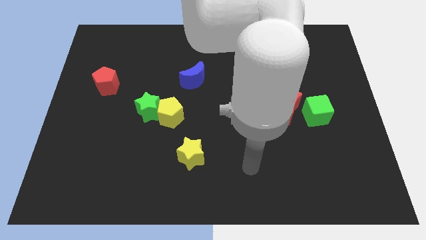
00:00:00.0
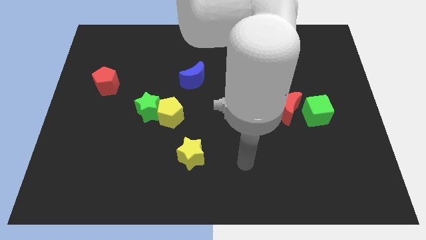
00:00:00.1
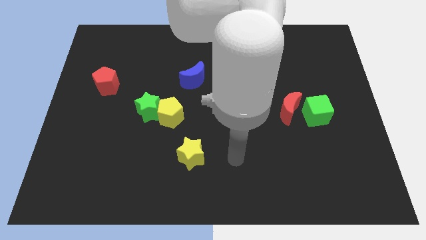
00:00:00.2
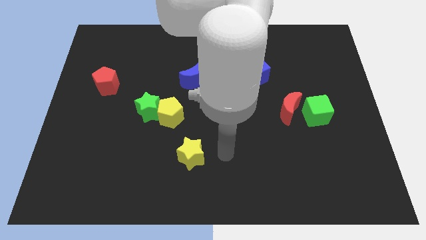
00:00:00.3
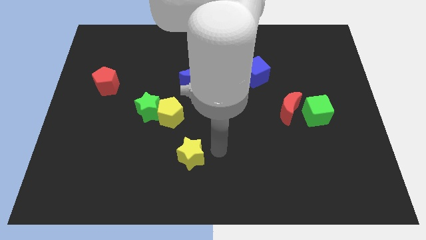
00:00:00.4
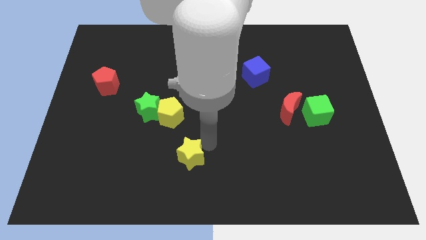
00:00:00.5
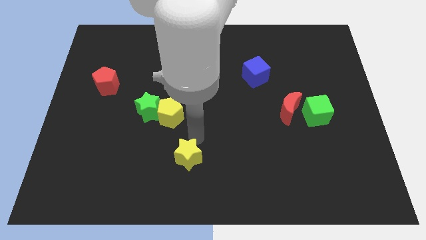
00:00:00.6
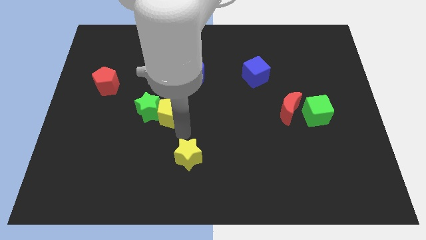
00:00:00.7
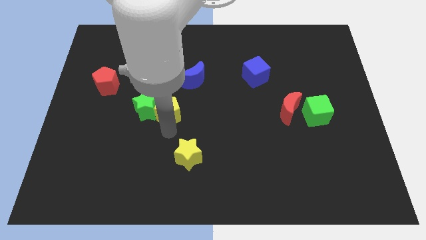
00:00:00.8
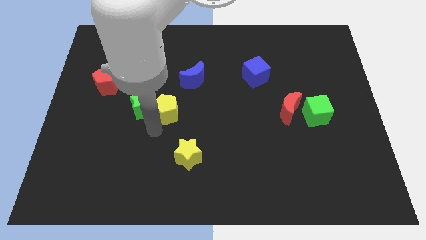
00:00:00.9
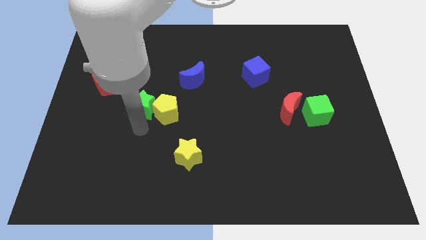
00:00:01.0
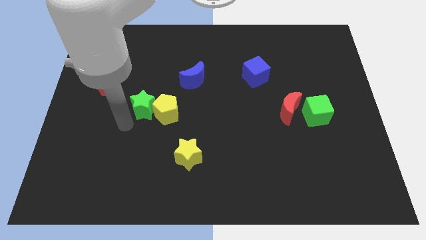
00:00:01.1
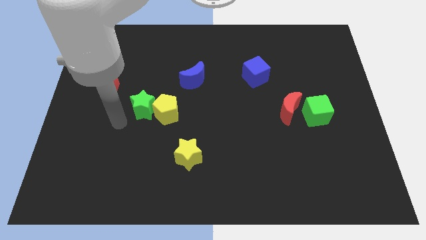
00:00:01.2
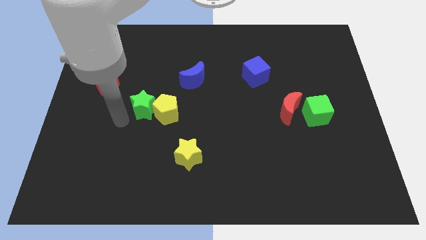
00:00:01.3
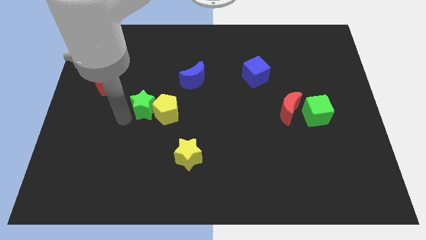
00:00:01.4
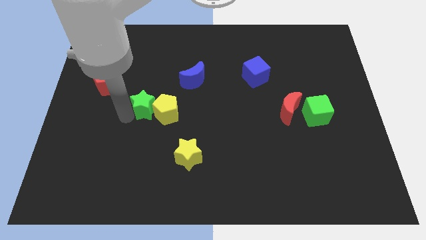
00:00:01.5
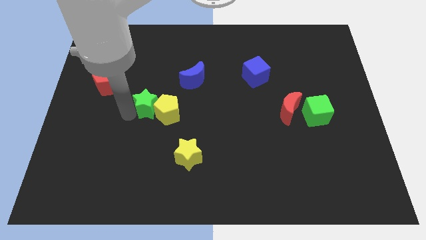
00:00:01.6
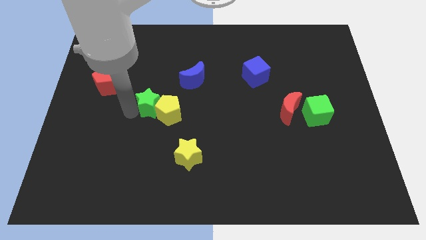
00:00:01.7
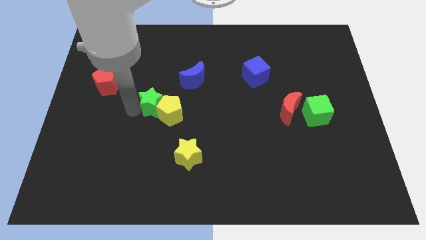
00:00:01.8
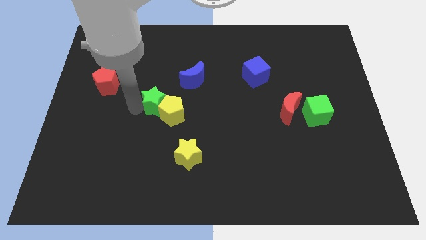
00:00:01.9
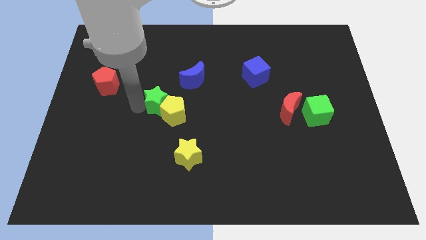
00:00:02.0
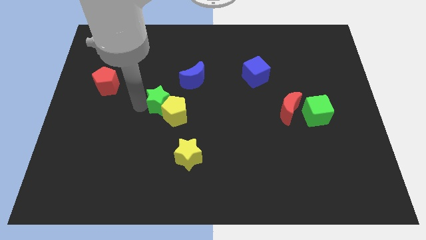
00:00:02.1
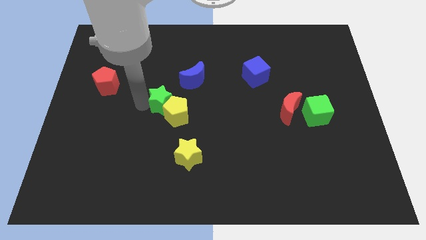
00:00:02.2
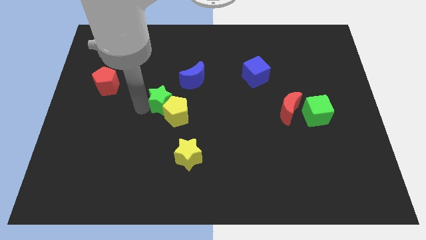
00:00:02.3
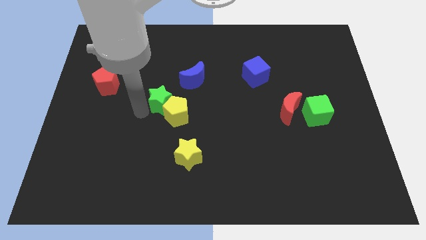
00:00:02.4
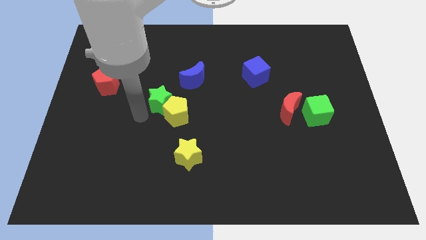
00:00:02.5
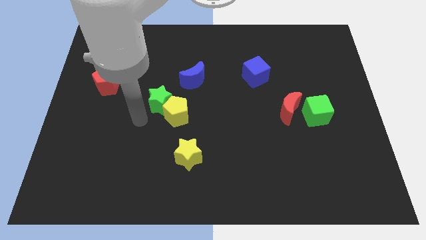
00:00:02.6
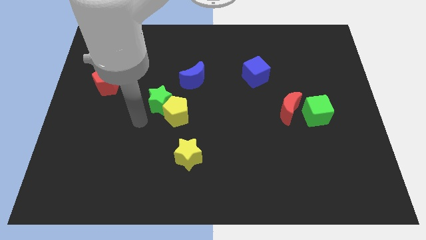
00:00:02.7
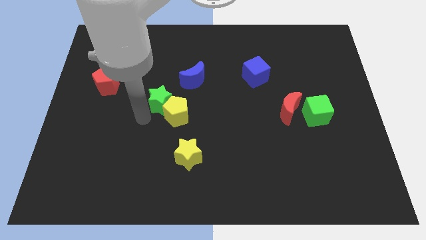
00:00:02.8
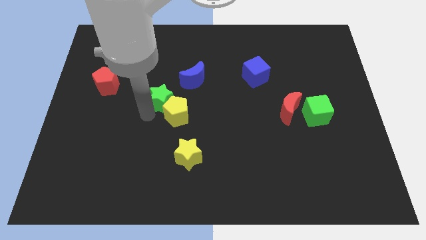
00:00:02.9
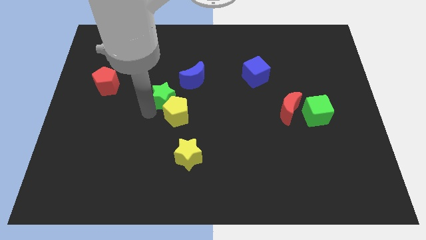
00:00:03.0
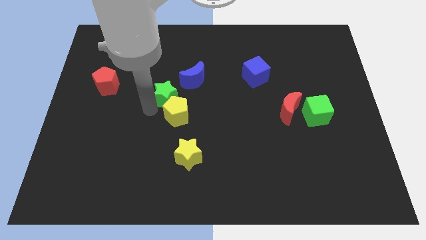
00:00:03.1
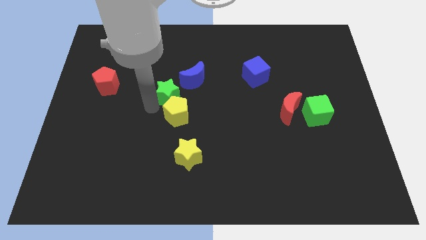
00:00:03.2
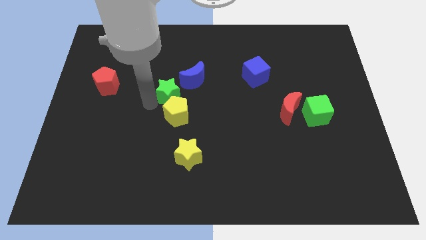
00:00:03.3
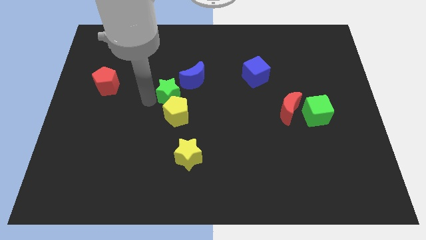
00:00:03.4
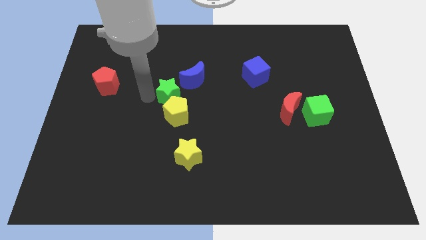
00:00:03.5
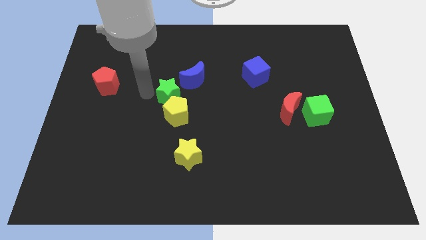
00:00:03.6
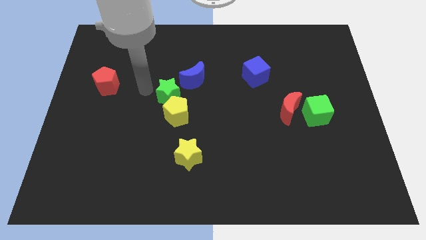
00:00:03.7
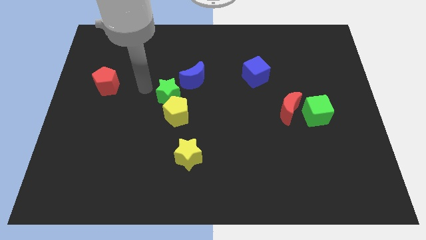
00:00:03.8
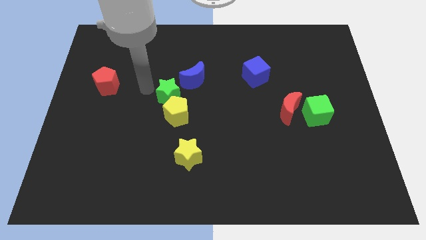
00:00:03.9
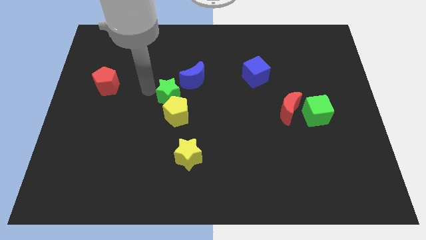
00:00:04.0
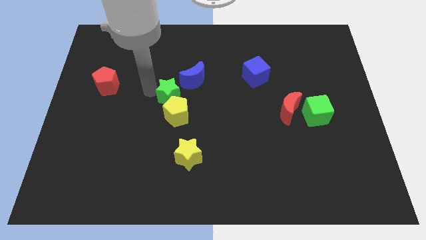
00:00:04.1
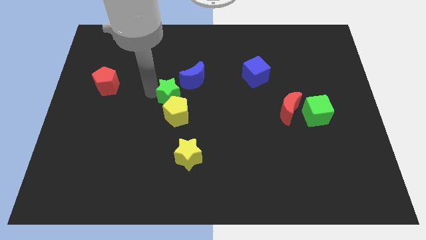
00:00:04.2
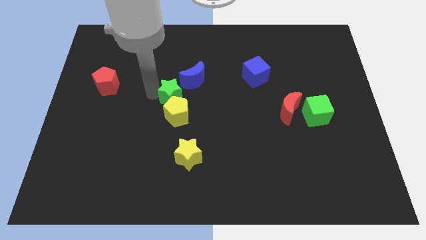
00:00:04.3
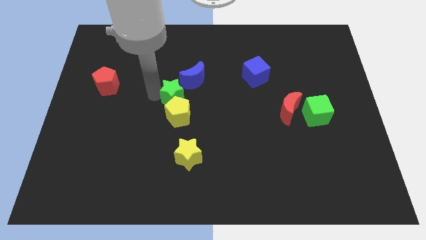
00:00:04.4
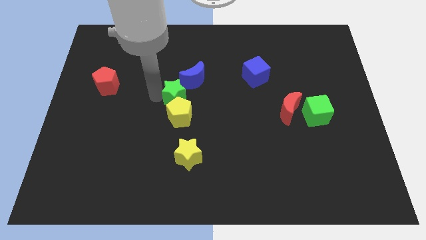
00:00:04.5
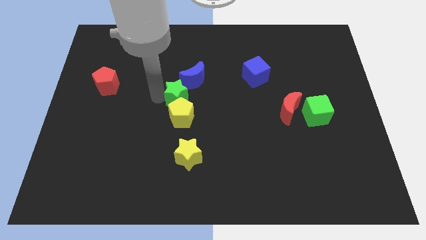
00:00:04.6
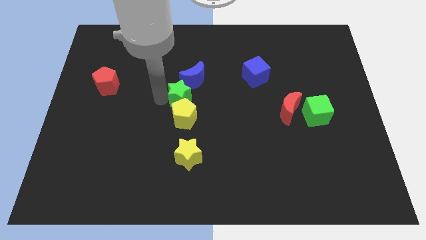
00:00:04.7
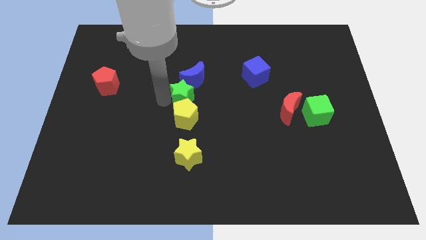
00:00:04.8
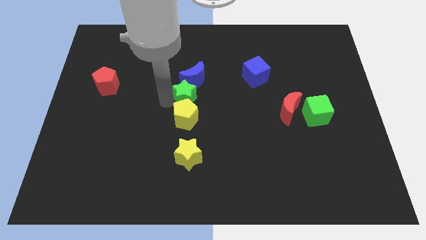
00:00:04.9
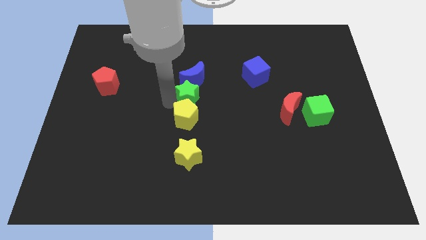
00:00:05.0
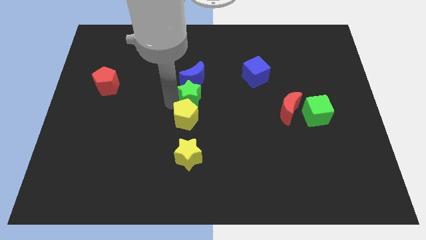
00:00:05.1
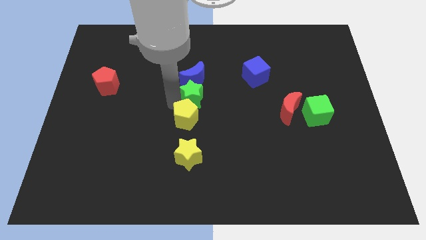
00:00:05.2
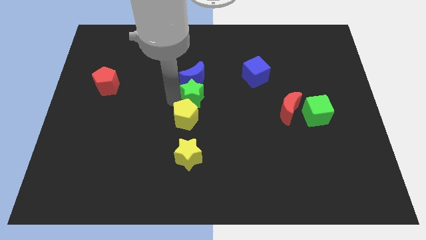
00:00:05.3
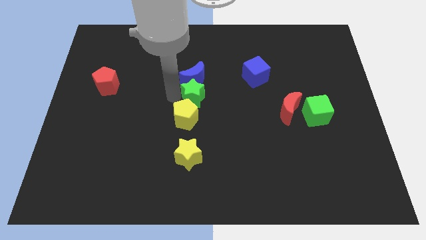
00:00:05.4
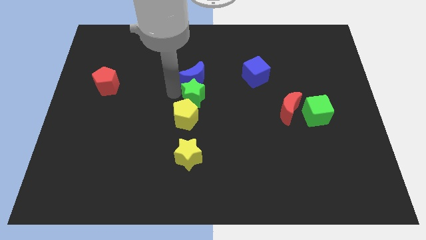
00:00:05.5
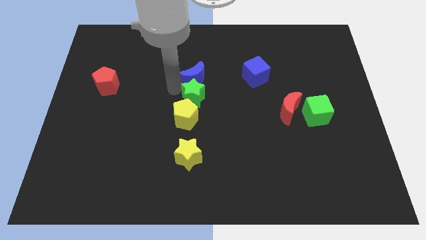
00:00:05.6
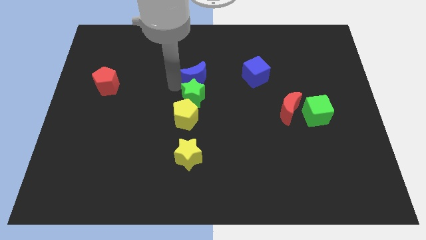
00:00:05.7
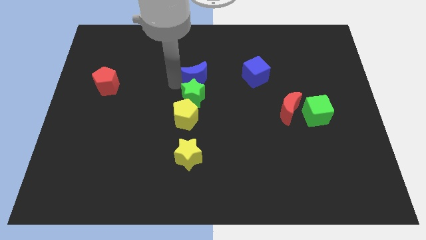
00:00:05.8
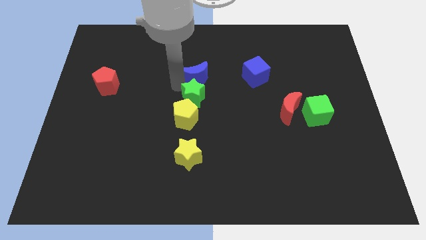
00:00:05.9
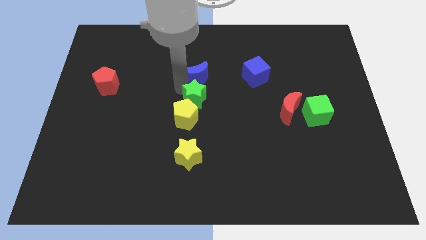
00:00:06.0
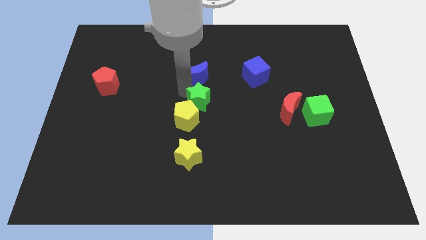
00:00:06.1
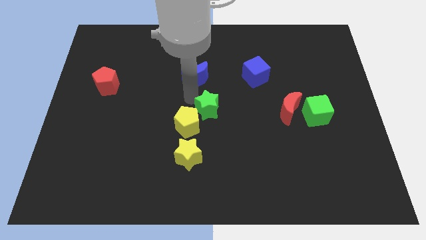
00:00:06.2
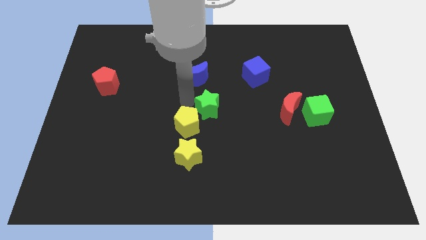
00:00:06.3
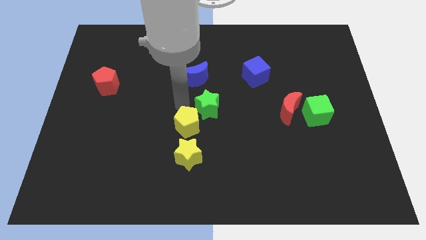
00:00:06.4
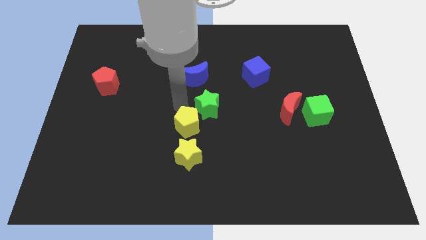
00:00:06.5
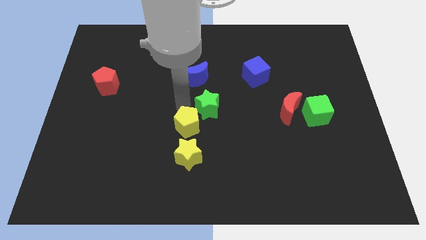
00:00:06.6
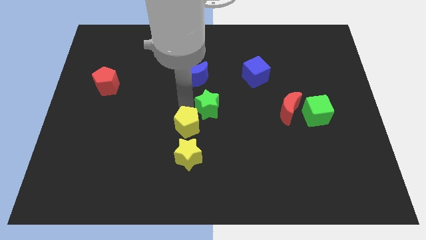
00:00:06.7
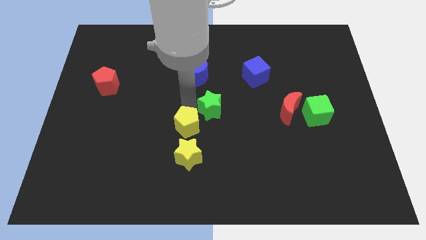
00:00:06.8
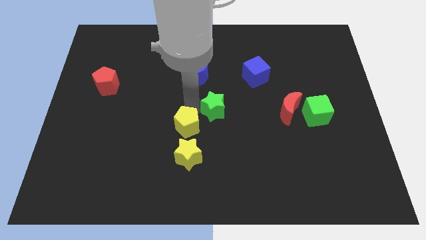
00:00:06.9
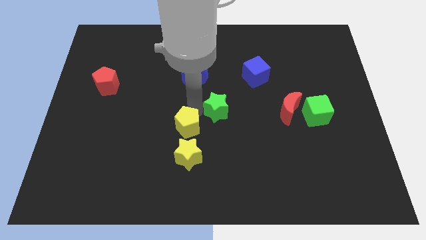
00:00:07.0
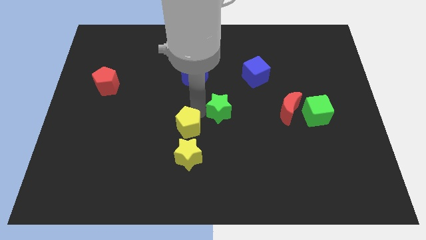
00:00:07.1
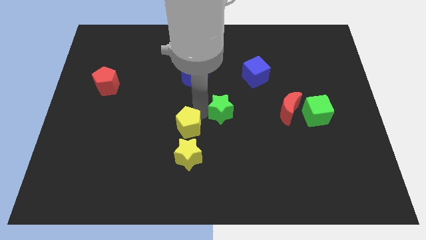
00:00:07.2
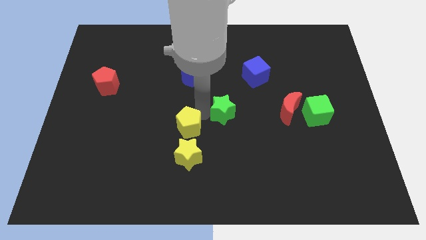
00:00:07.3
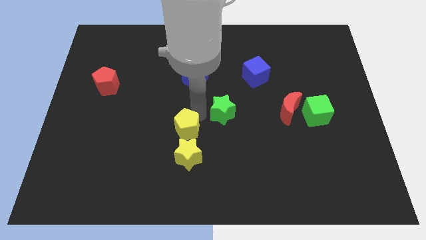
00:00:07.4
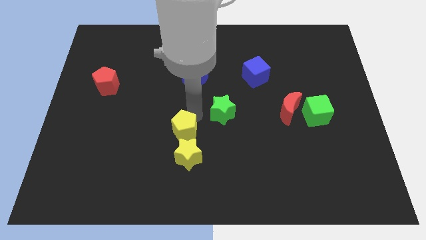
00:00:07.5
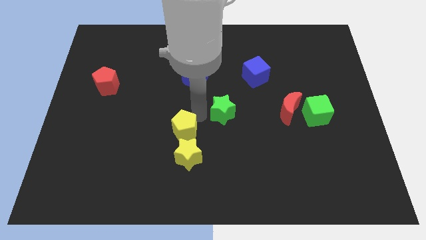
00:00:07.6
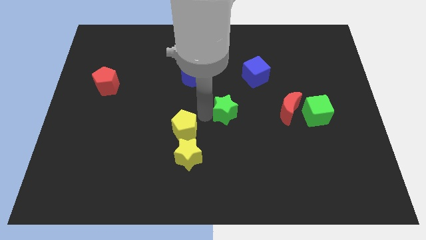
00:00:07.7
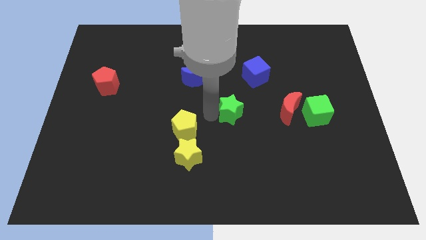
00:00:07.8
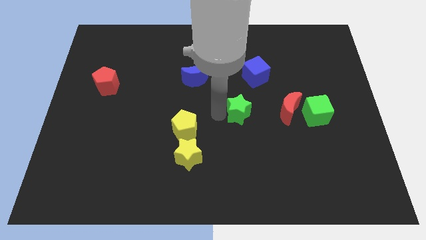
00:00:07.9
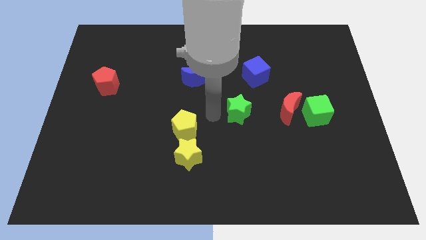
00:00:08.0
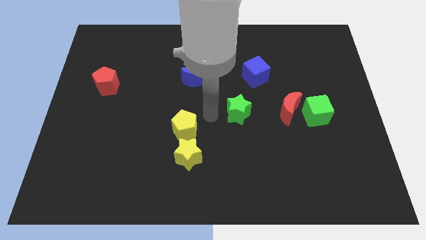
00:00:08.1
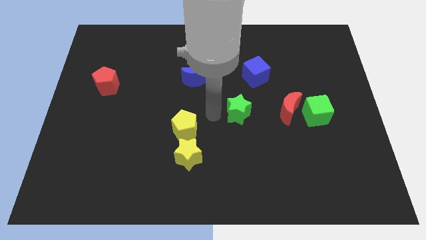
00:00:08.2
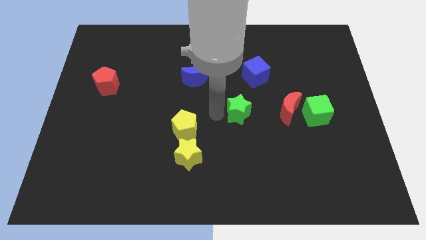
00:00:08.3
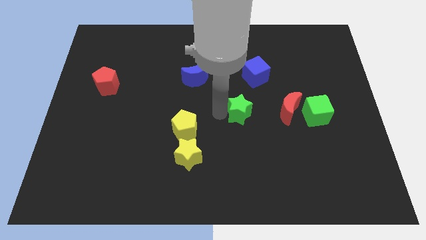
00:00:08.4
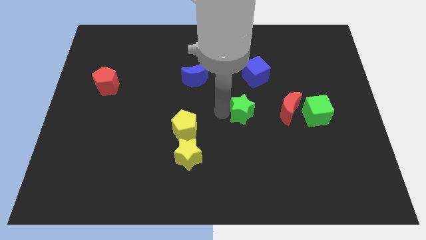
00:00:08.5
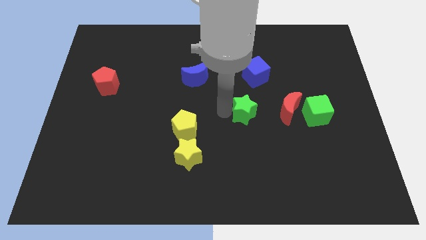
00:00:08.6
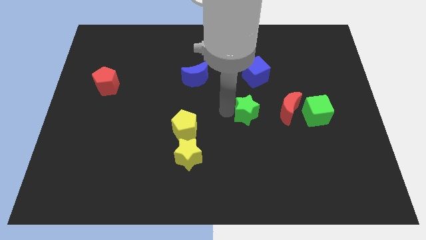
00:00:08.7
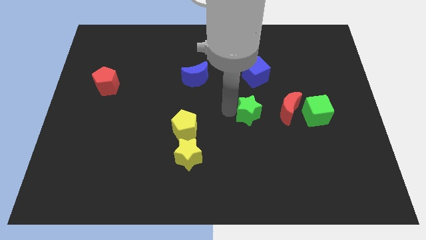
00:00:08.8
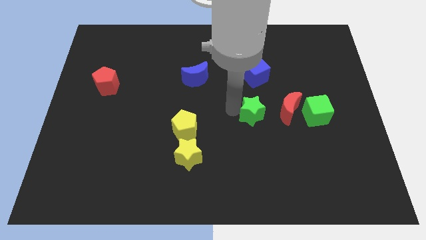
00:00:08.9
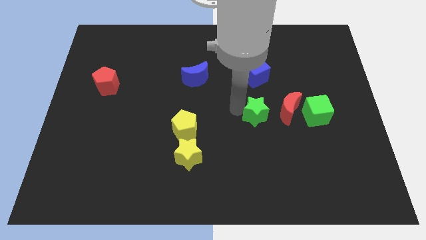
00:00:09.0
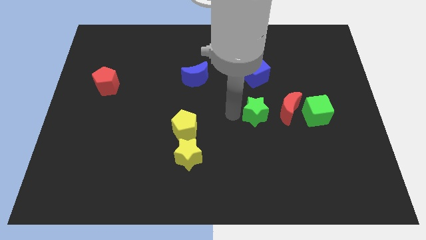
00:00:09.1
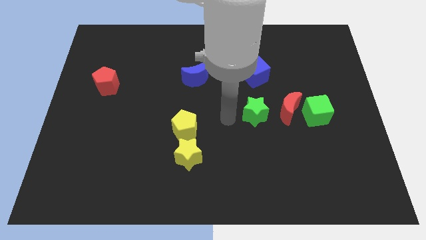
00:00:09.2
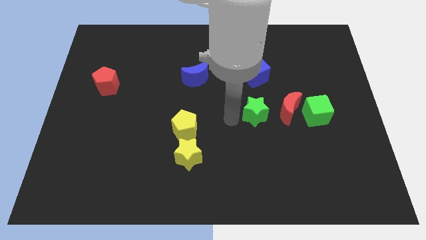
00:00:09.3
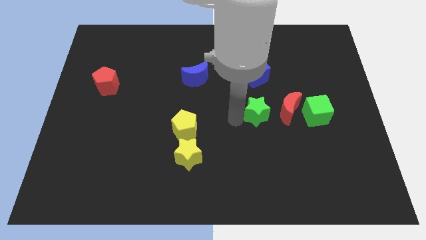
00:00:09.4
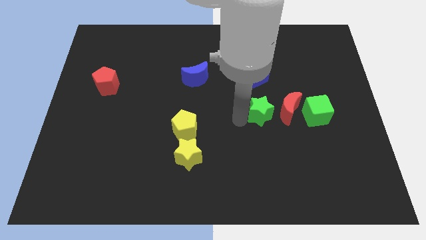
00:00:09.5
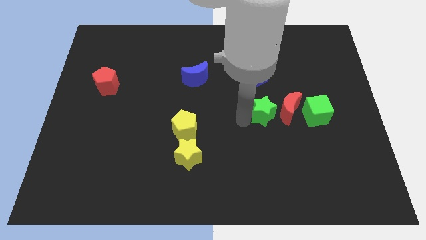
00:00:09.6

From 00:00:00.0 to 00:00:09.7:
put the green star towards the red moon
